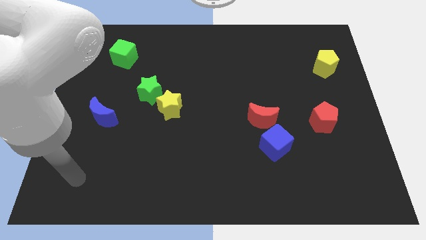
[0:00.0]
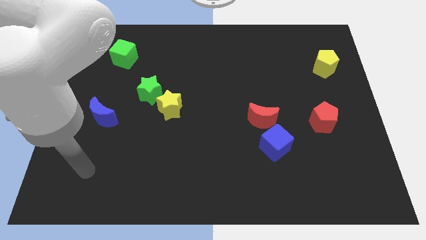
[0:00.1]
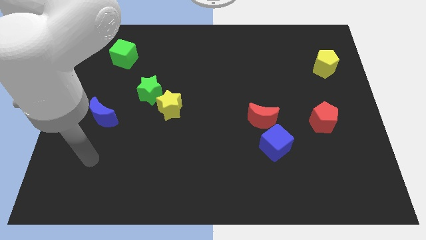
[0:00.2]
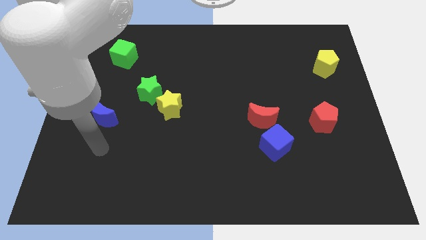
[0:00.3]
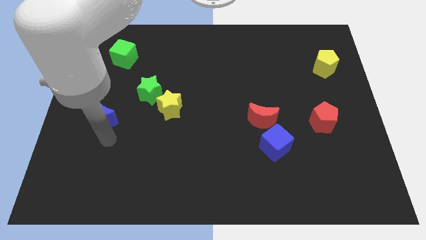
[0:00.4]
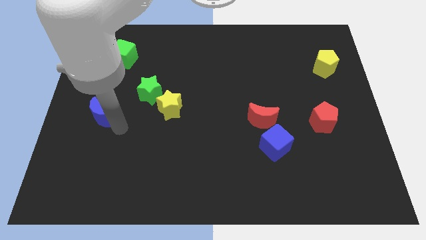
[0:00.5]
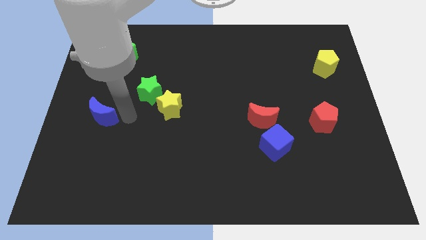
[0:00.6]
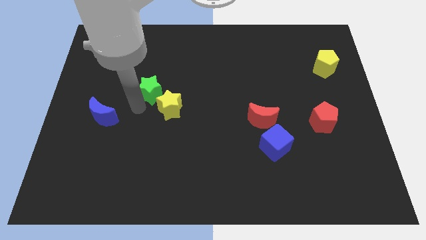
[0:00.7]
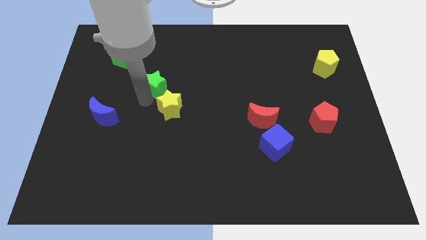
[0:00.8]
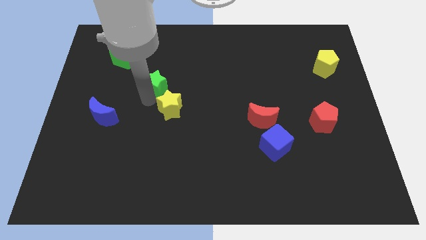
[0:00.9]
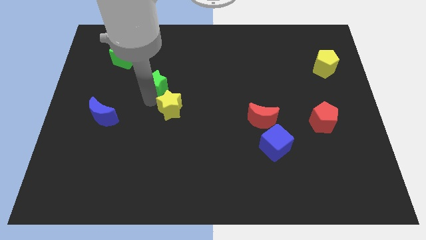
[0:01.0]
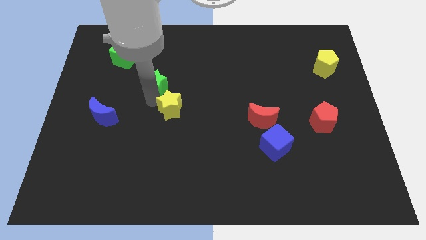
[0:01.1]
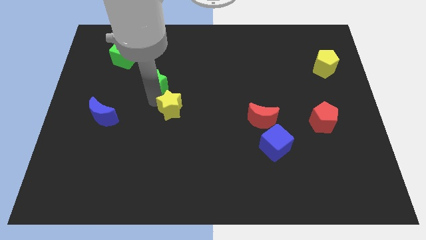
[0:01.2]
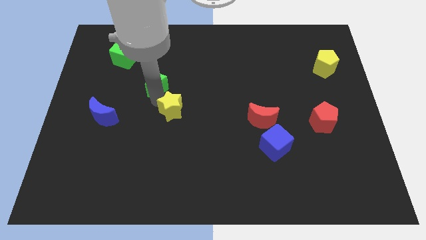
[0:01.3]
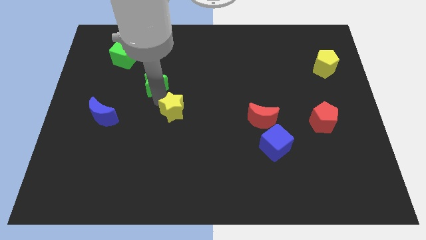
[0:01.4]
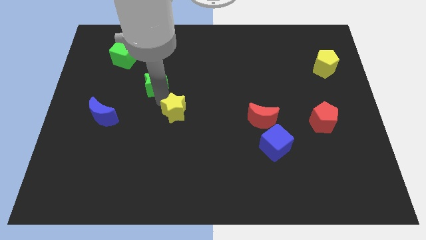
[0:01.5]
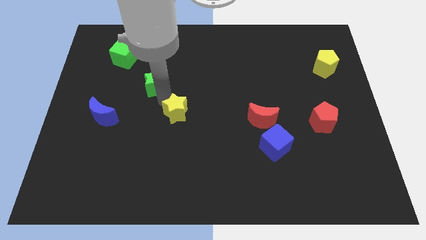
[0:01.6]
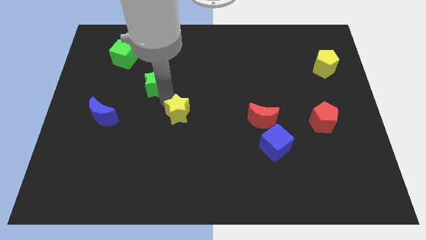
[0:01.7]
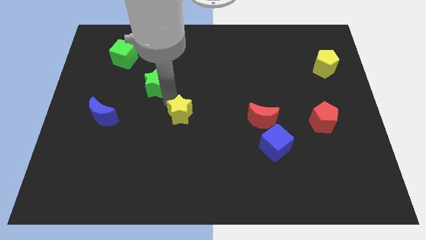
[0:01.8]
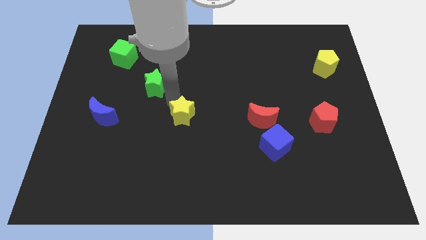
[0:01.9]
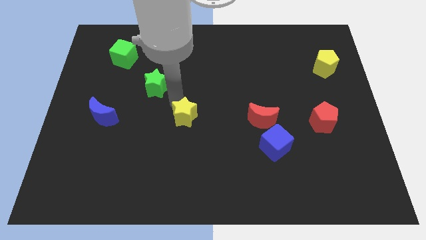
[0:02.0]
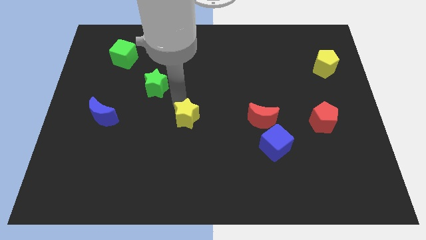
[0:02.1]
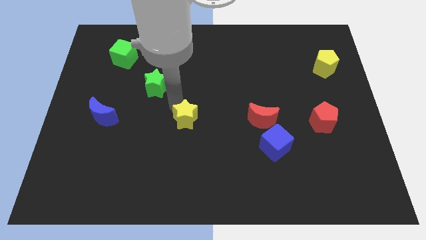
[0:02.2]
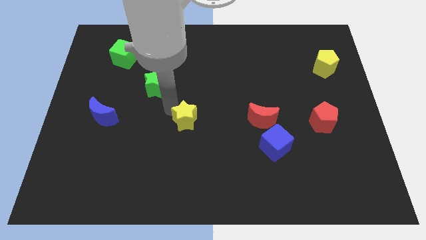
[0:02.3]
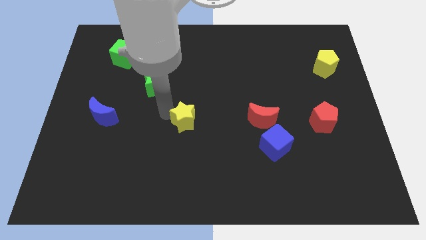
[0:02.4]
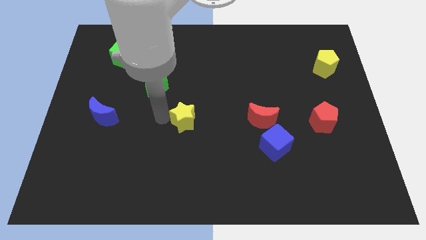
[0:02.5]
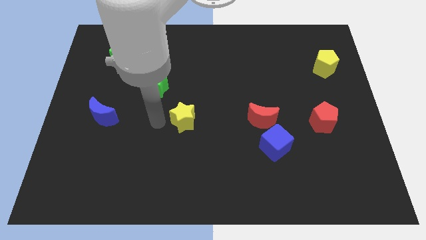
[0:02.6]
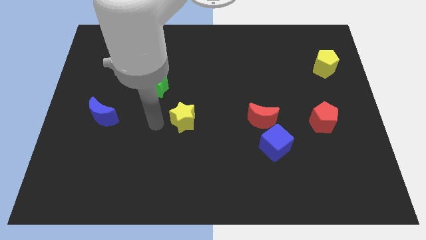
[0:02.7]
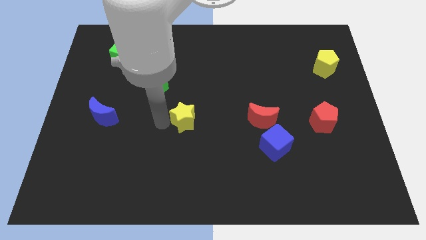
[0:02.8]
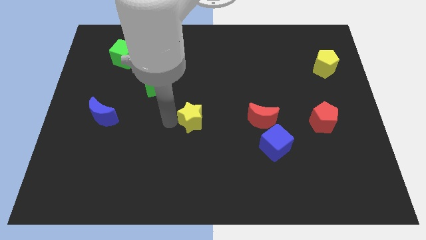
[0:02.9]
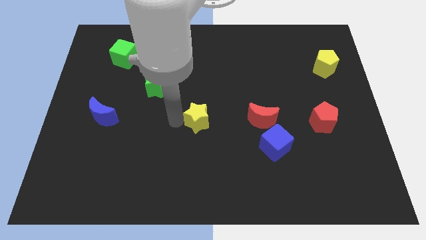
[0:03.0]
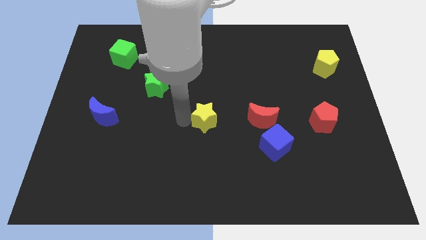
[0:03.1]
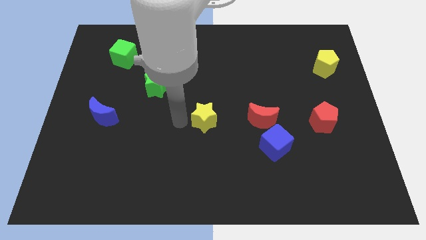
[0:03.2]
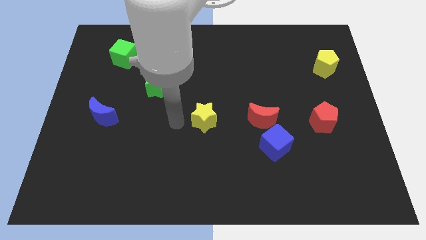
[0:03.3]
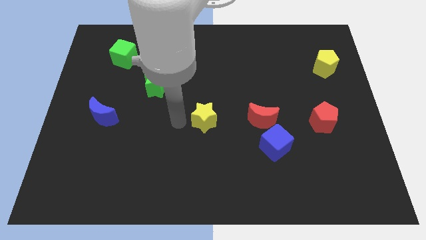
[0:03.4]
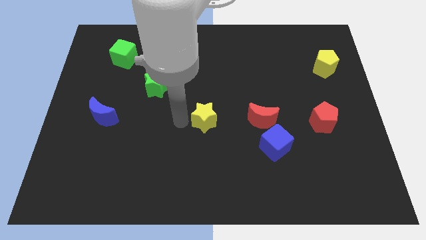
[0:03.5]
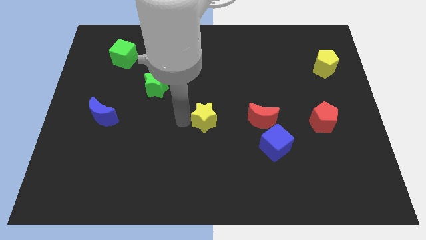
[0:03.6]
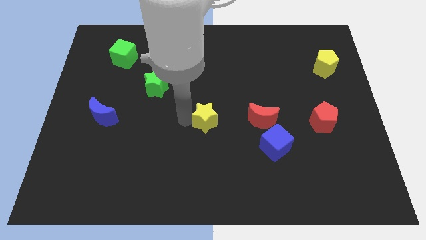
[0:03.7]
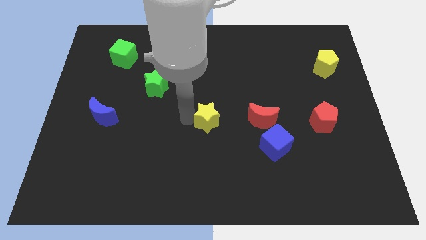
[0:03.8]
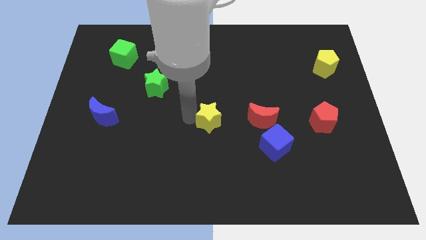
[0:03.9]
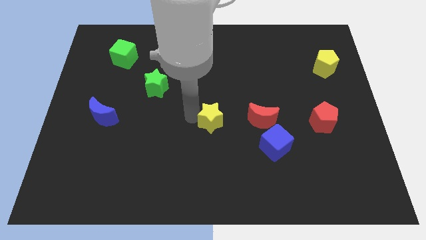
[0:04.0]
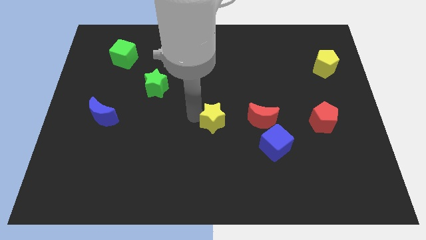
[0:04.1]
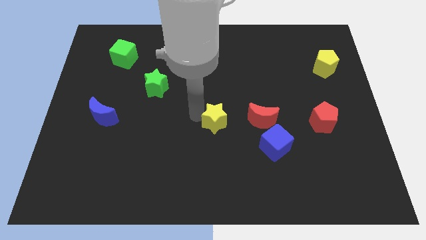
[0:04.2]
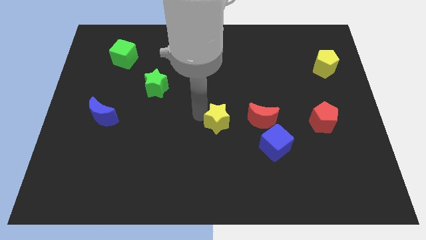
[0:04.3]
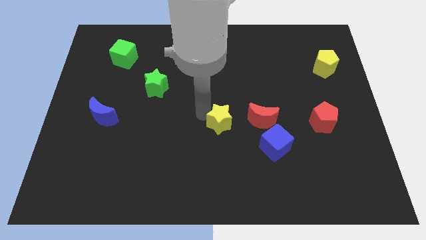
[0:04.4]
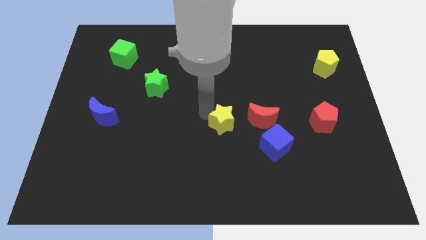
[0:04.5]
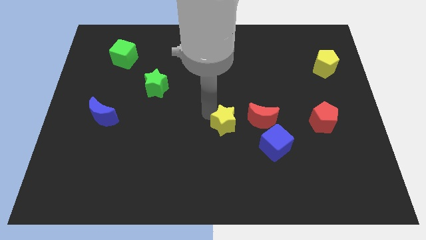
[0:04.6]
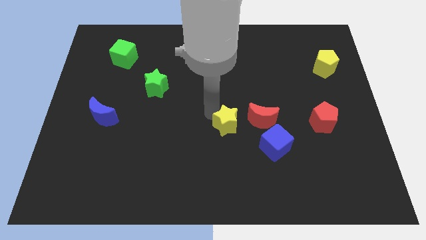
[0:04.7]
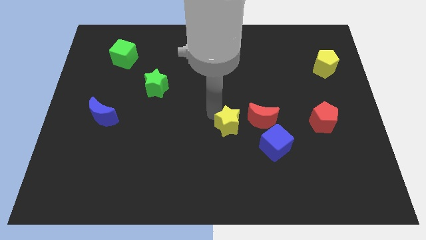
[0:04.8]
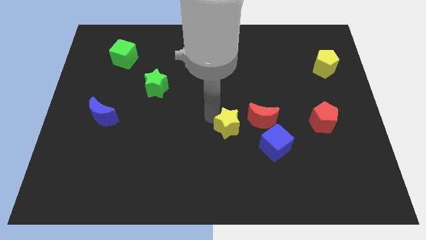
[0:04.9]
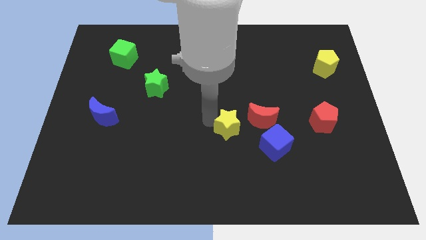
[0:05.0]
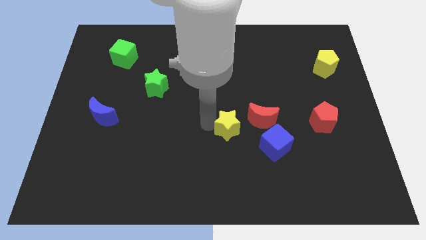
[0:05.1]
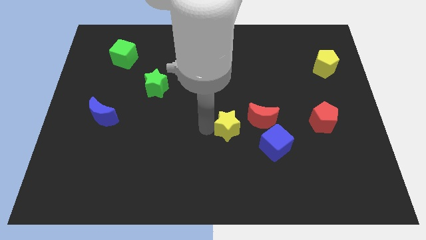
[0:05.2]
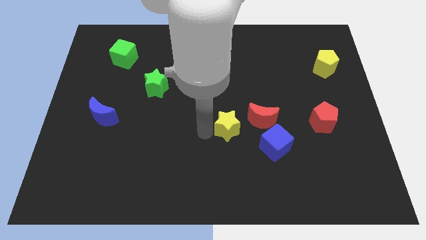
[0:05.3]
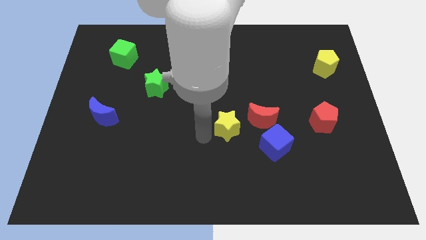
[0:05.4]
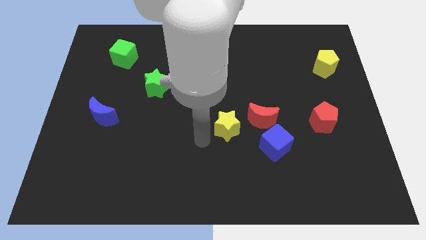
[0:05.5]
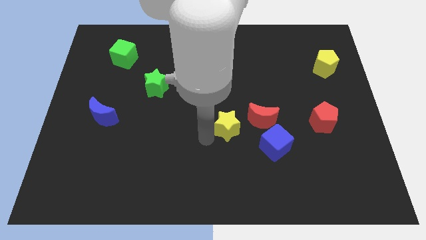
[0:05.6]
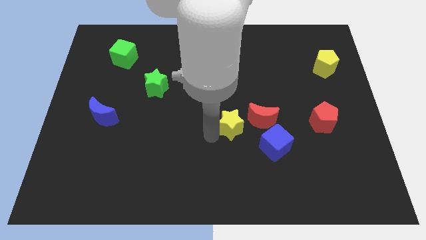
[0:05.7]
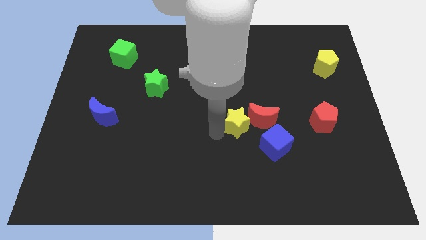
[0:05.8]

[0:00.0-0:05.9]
push the yellow star towards the red moon

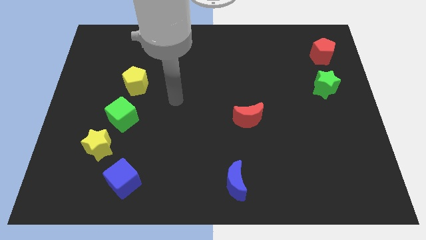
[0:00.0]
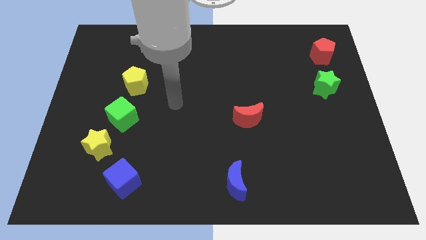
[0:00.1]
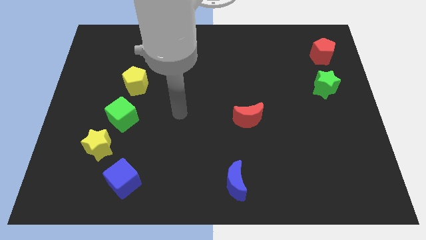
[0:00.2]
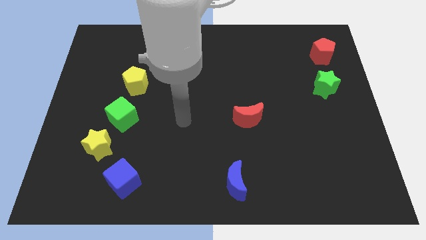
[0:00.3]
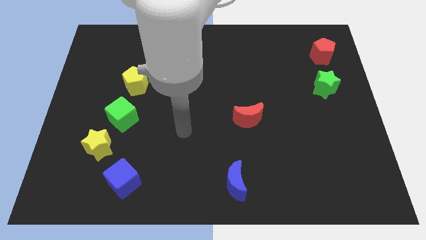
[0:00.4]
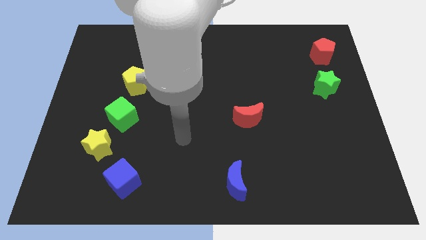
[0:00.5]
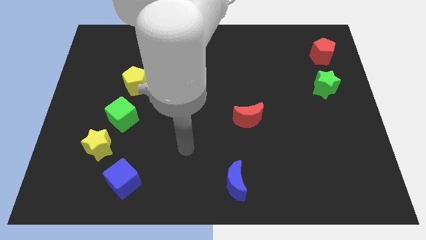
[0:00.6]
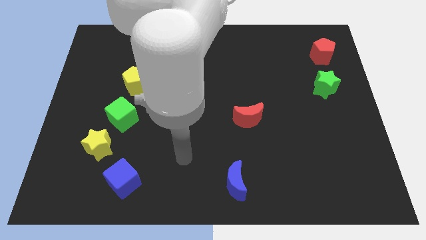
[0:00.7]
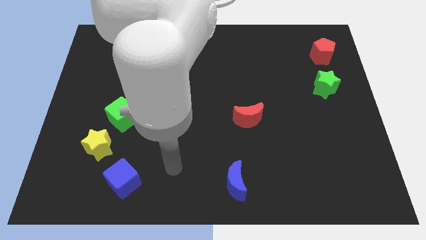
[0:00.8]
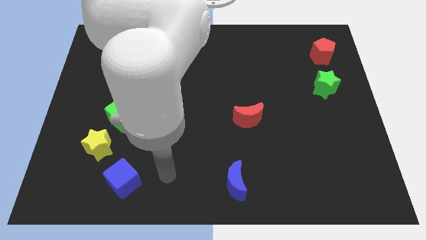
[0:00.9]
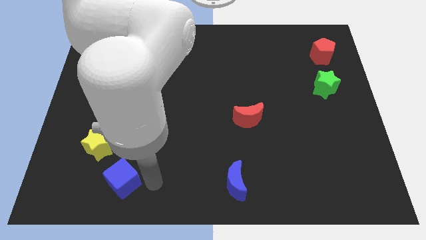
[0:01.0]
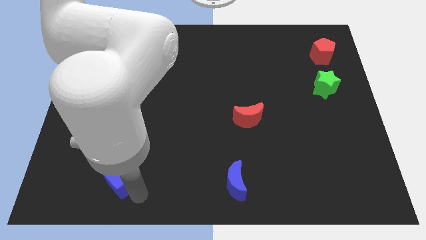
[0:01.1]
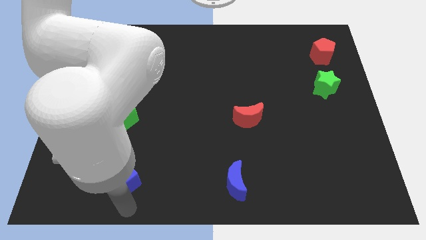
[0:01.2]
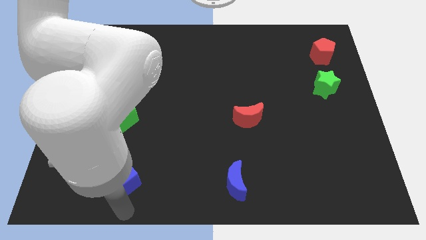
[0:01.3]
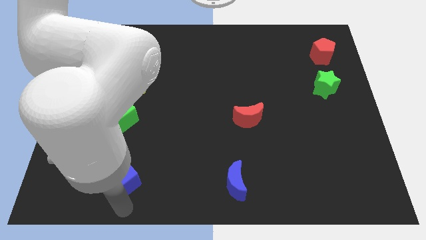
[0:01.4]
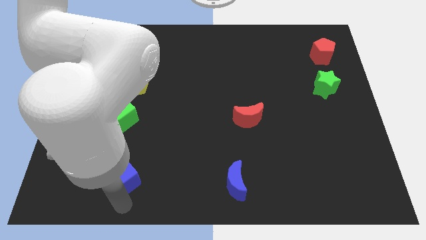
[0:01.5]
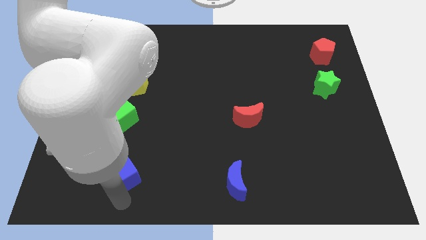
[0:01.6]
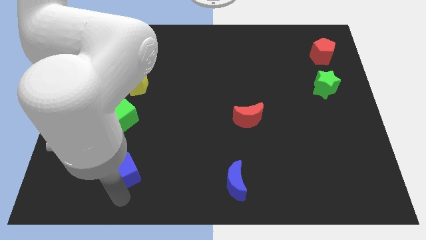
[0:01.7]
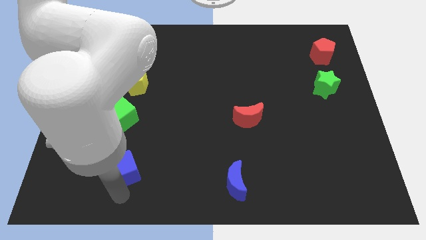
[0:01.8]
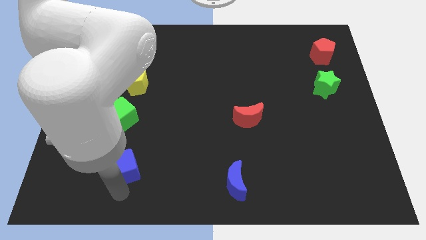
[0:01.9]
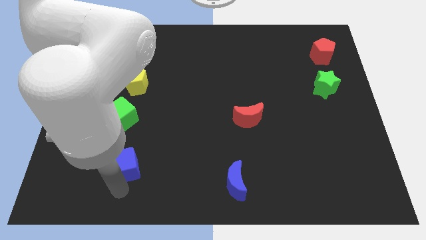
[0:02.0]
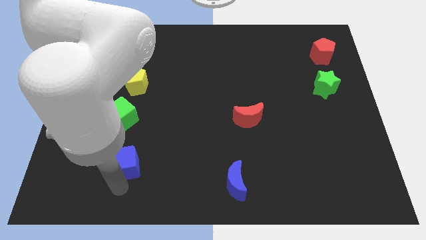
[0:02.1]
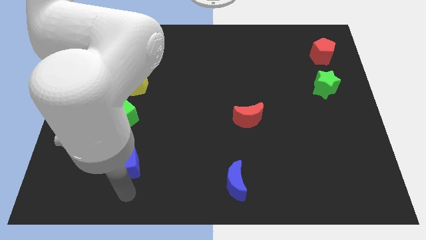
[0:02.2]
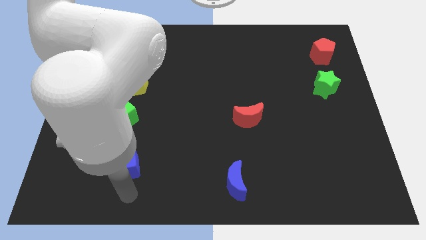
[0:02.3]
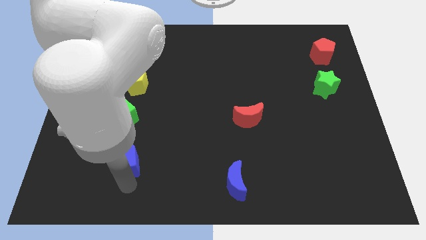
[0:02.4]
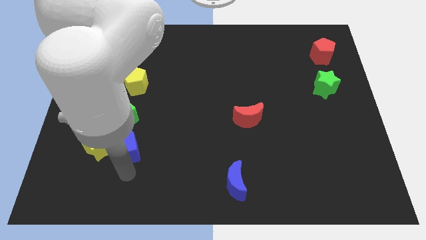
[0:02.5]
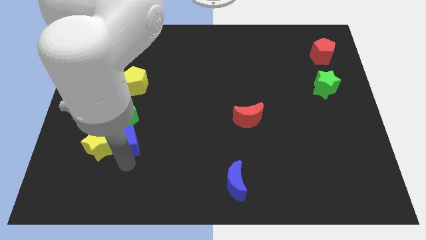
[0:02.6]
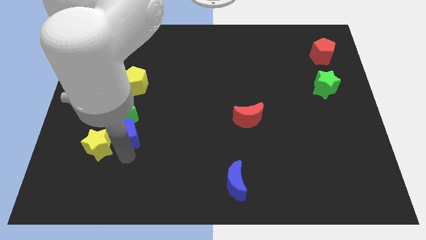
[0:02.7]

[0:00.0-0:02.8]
move the blue cube close to the green cube
